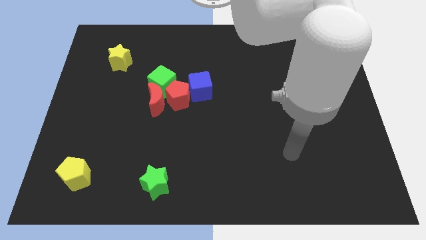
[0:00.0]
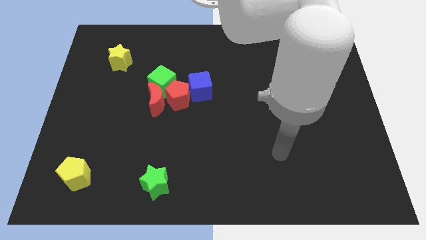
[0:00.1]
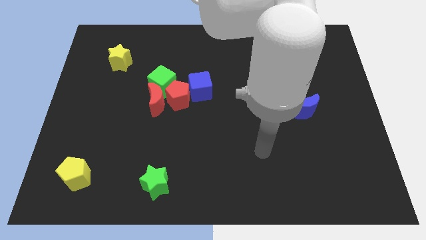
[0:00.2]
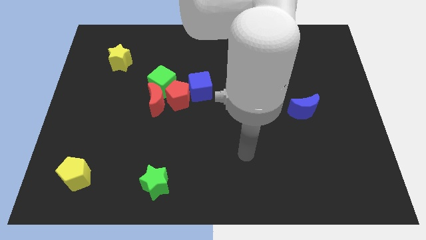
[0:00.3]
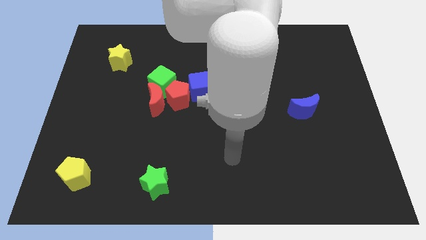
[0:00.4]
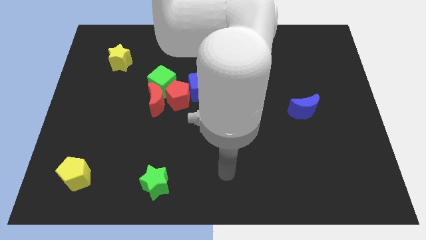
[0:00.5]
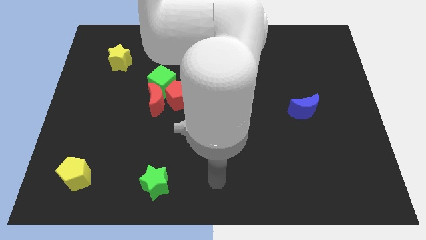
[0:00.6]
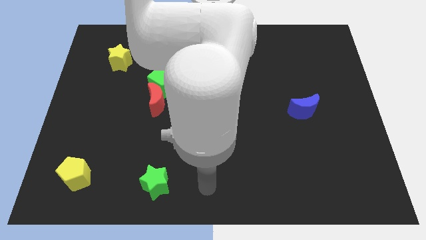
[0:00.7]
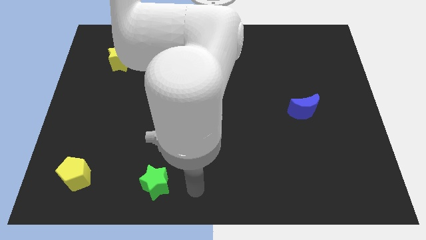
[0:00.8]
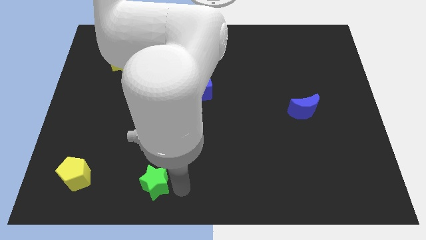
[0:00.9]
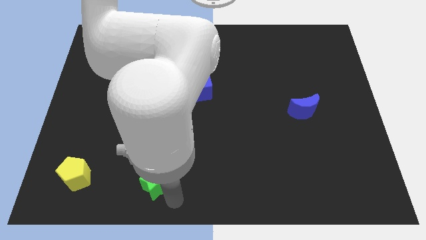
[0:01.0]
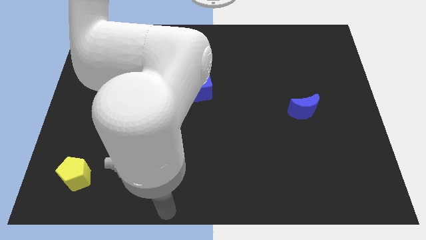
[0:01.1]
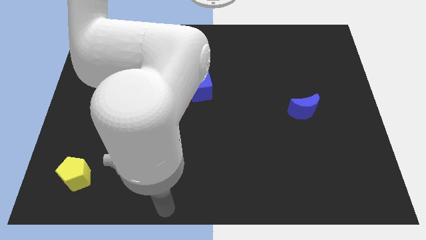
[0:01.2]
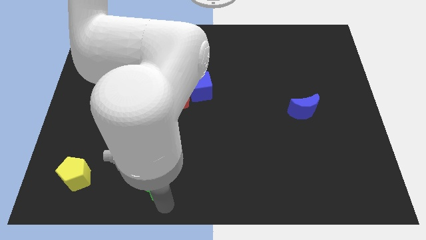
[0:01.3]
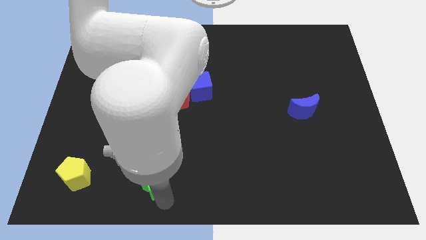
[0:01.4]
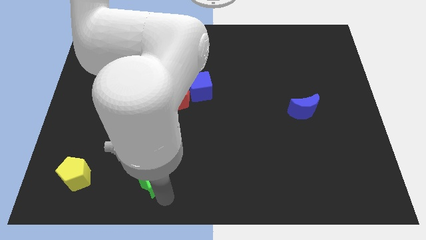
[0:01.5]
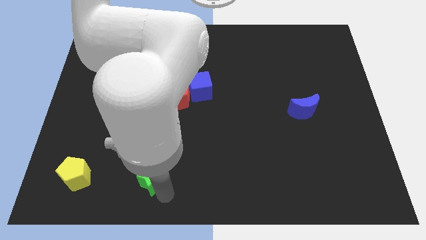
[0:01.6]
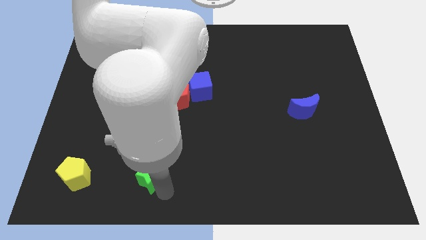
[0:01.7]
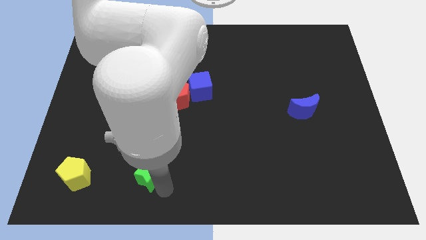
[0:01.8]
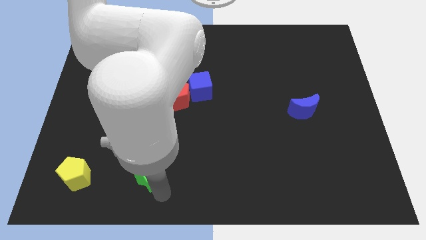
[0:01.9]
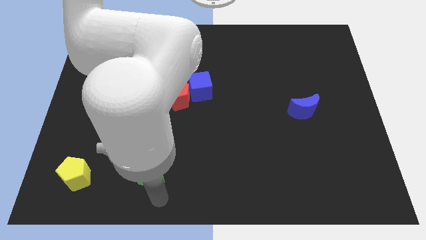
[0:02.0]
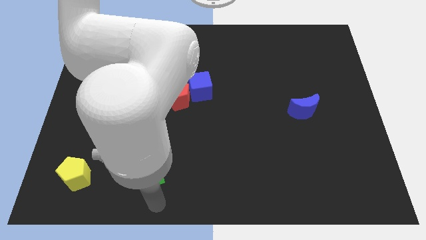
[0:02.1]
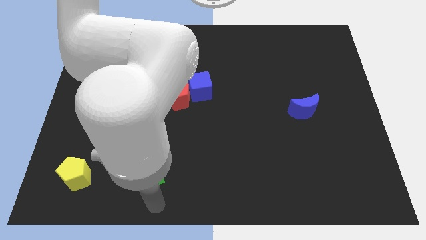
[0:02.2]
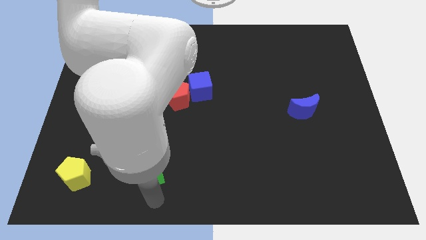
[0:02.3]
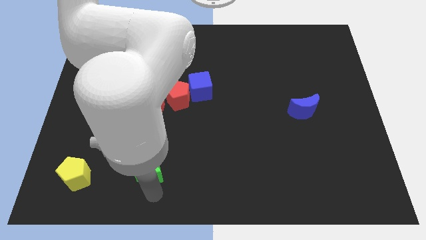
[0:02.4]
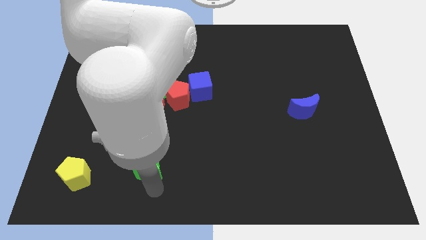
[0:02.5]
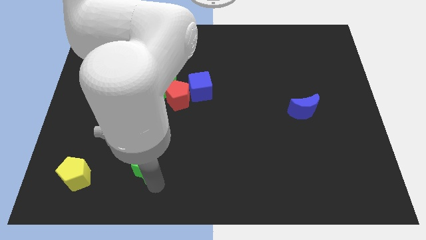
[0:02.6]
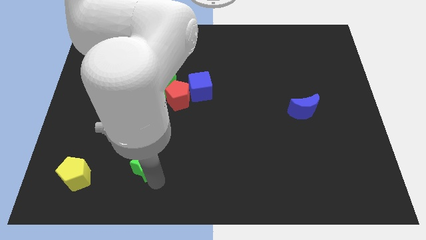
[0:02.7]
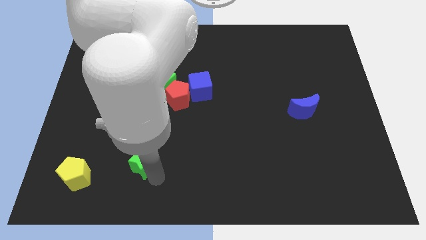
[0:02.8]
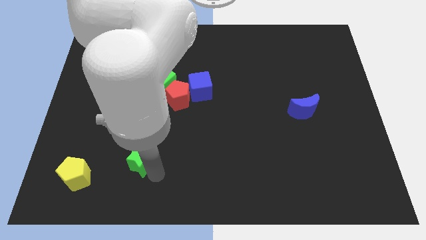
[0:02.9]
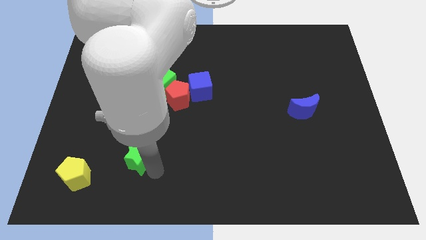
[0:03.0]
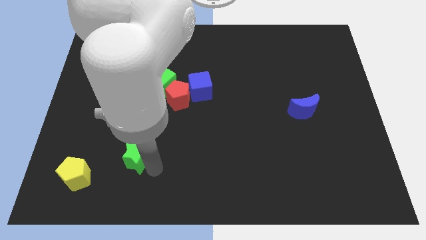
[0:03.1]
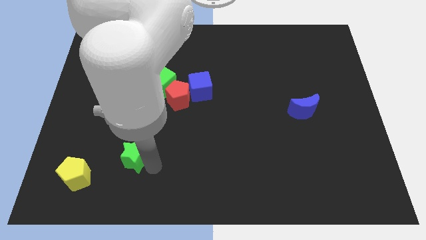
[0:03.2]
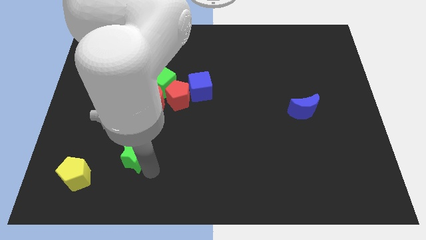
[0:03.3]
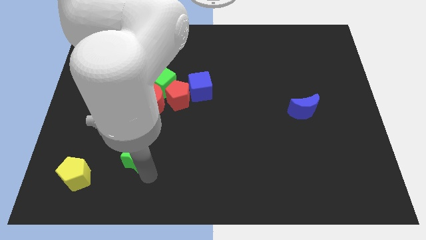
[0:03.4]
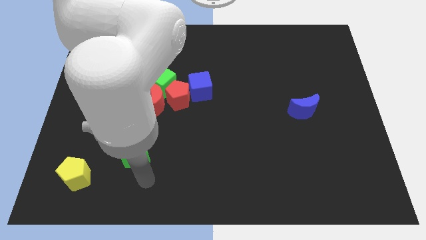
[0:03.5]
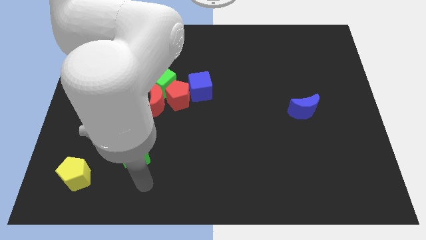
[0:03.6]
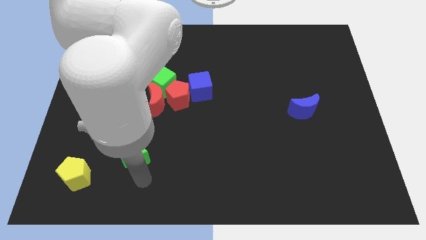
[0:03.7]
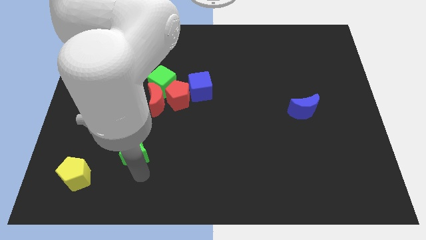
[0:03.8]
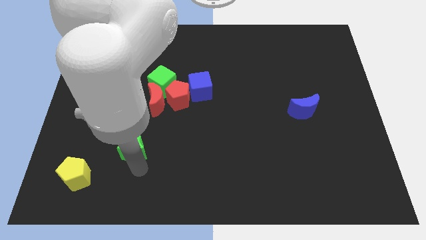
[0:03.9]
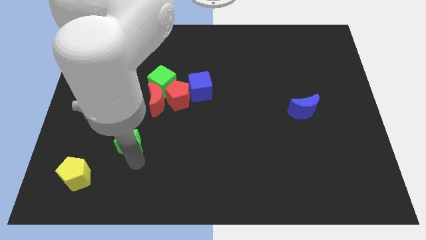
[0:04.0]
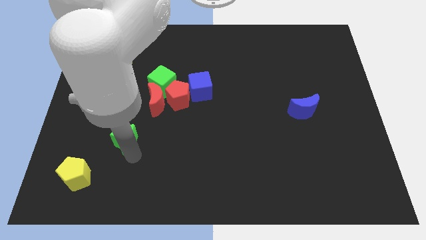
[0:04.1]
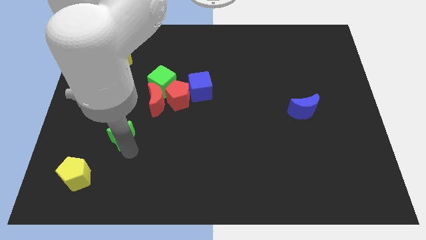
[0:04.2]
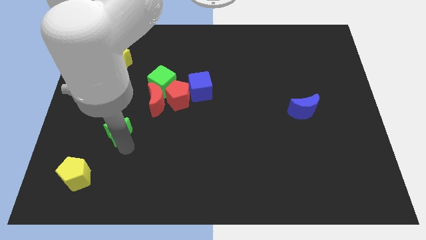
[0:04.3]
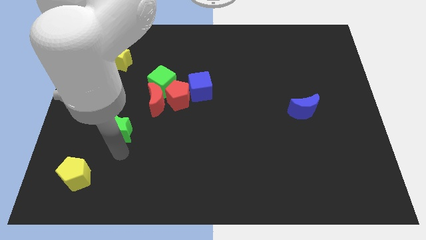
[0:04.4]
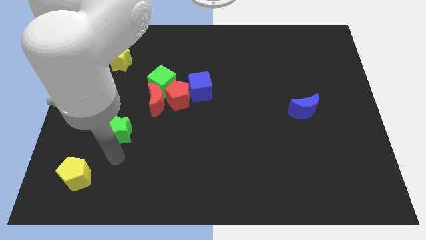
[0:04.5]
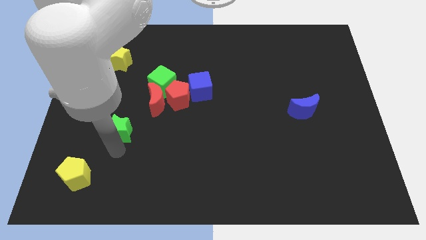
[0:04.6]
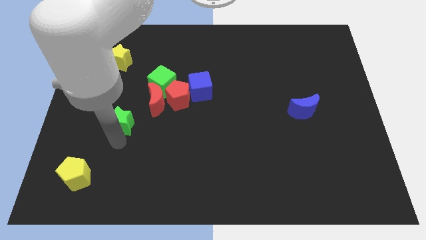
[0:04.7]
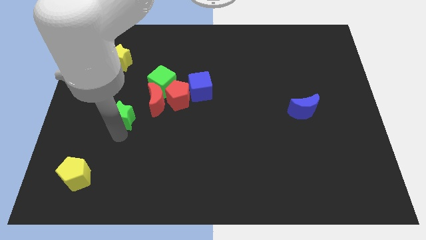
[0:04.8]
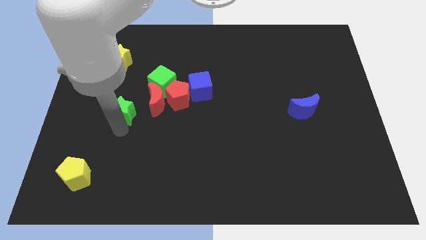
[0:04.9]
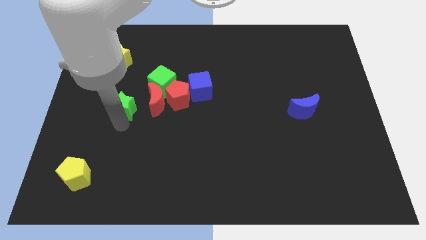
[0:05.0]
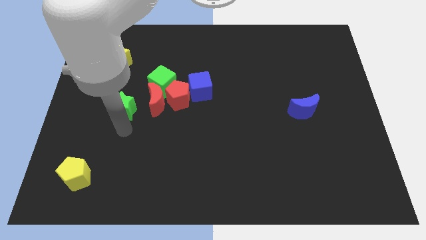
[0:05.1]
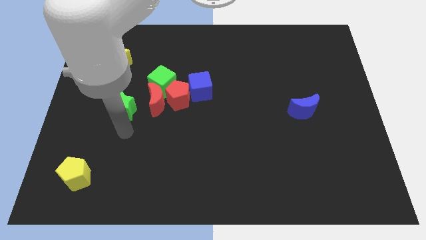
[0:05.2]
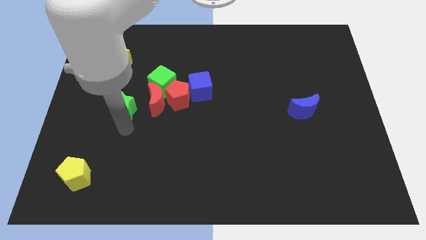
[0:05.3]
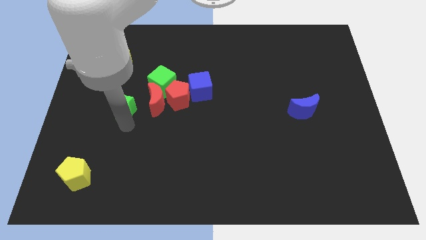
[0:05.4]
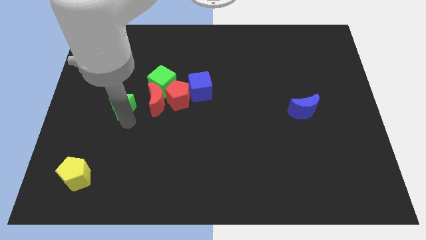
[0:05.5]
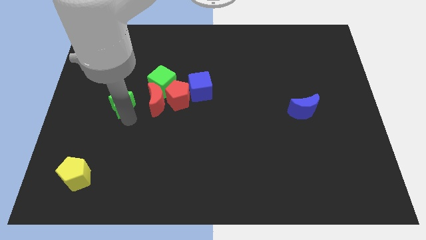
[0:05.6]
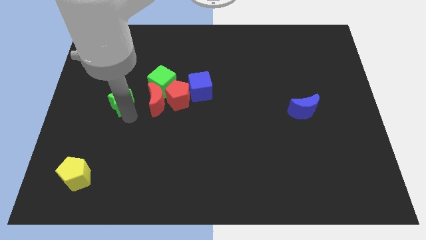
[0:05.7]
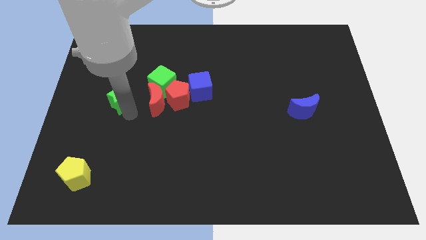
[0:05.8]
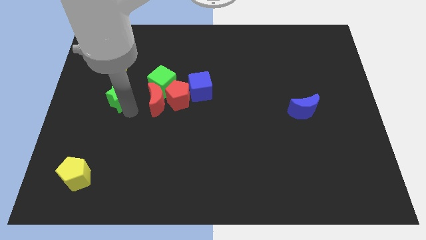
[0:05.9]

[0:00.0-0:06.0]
move the green star just left of the green cube

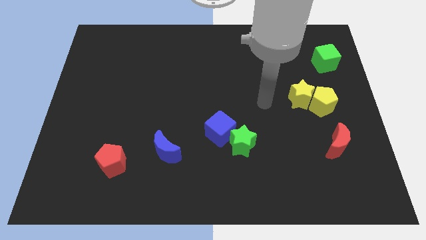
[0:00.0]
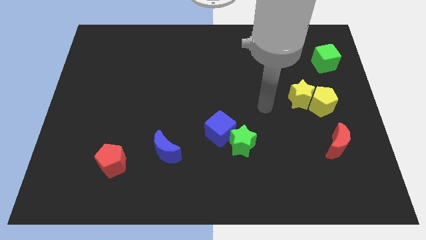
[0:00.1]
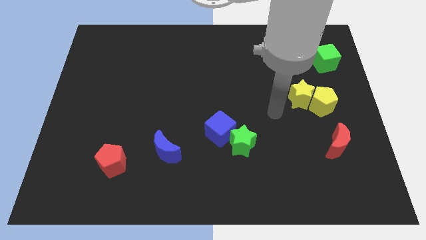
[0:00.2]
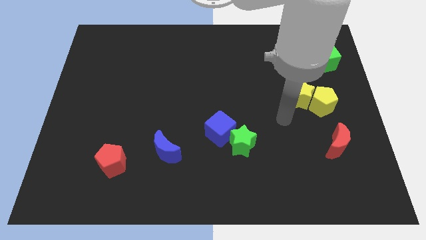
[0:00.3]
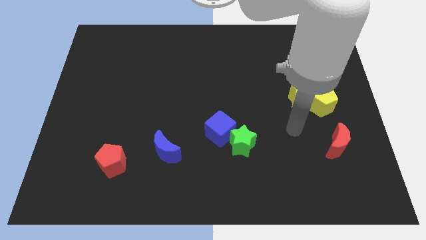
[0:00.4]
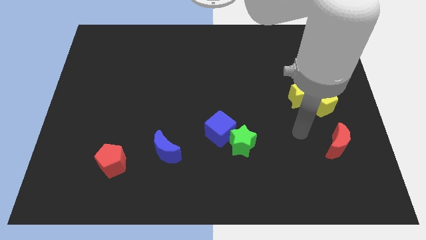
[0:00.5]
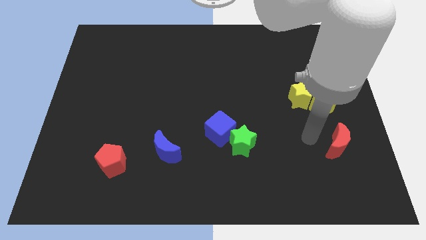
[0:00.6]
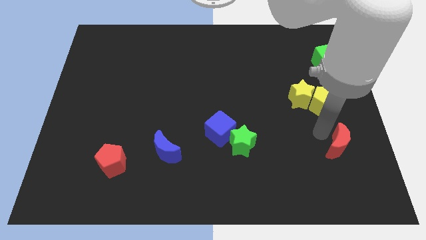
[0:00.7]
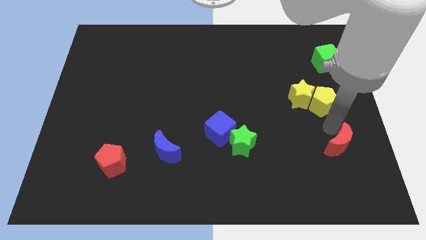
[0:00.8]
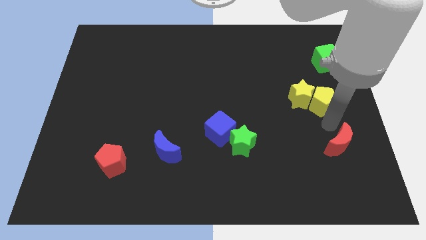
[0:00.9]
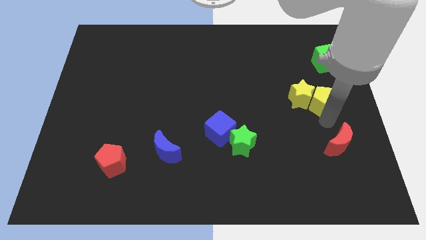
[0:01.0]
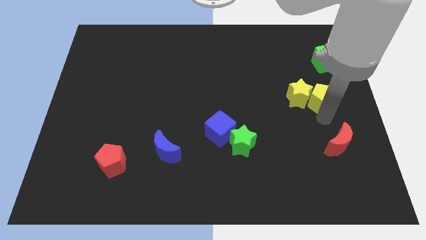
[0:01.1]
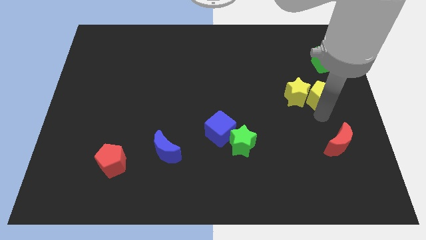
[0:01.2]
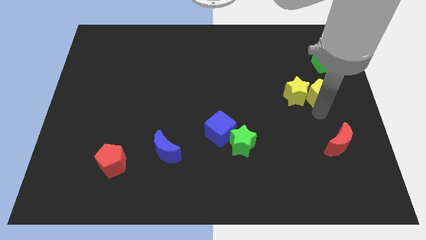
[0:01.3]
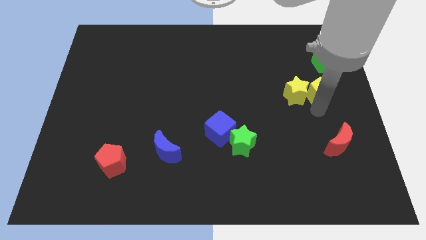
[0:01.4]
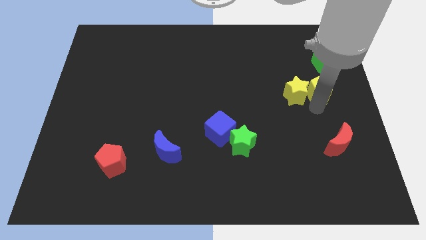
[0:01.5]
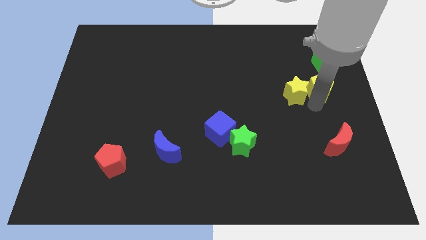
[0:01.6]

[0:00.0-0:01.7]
slide the yellow pentagon to the bottom left side of the green cube

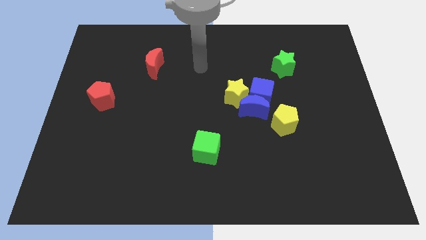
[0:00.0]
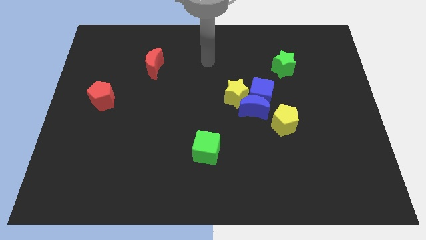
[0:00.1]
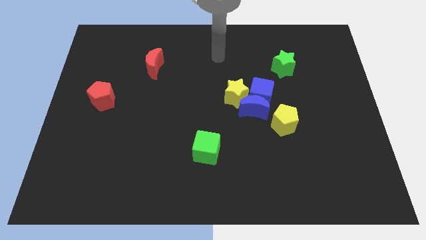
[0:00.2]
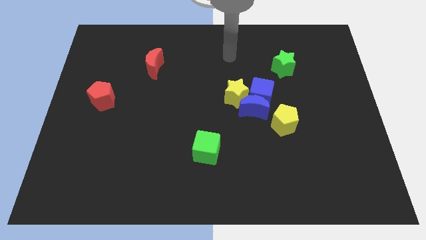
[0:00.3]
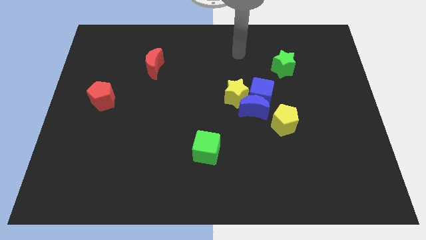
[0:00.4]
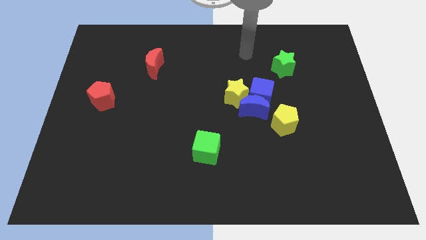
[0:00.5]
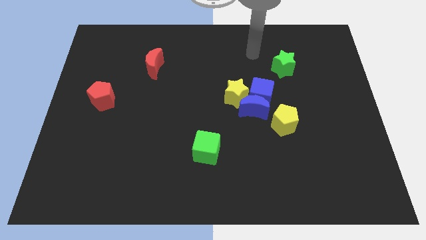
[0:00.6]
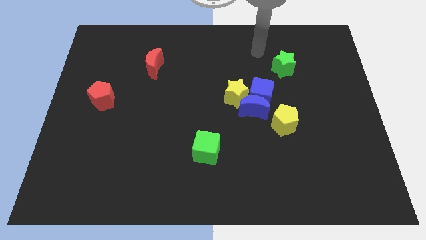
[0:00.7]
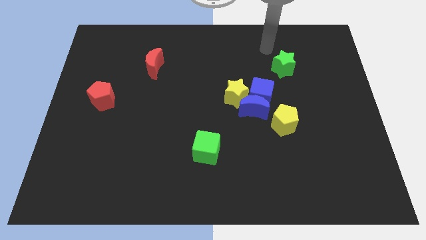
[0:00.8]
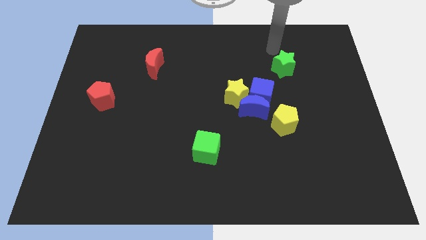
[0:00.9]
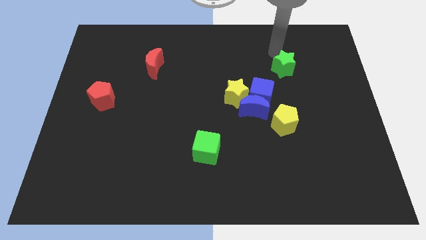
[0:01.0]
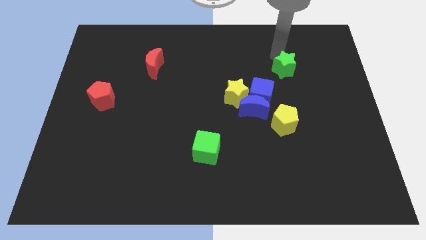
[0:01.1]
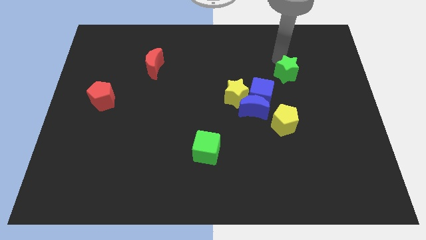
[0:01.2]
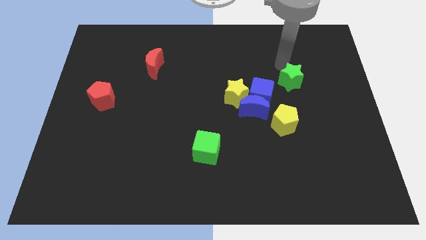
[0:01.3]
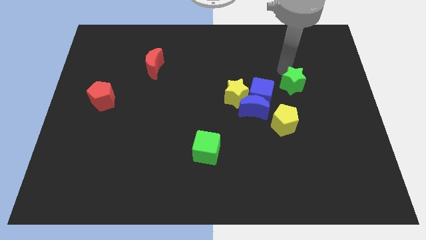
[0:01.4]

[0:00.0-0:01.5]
move the green star to the right side of the blue cube
